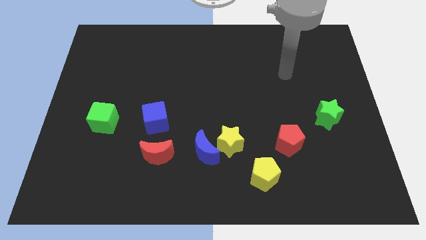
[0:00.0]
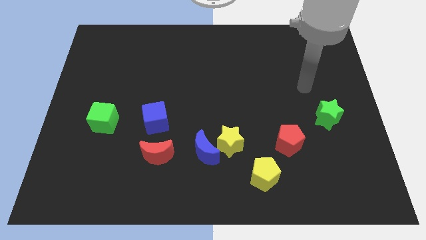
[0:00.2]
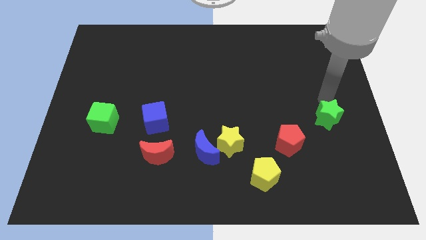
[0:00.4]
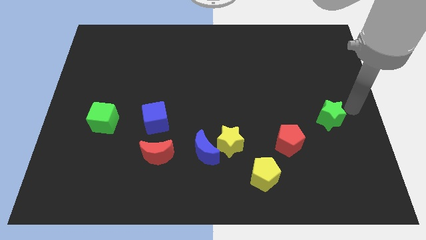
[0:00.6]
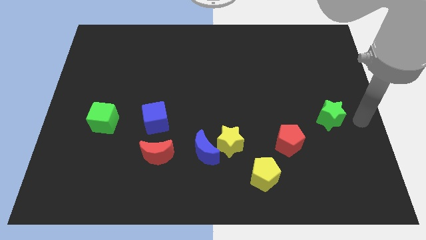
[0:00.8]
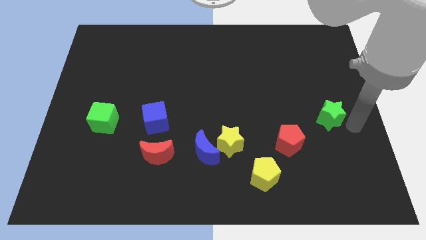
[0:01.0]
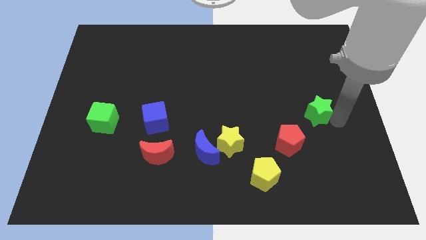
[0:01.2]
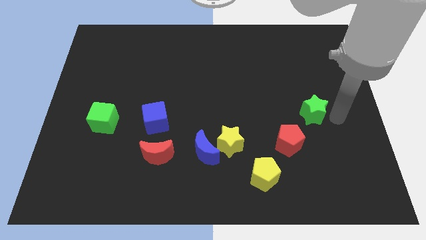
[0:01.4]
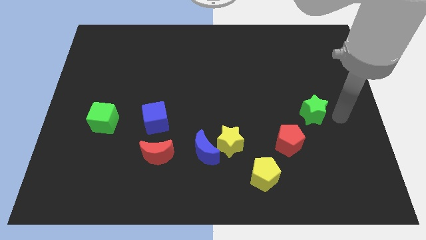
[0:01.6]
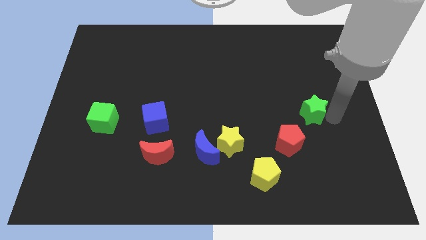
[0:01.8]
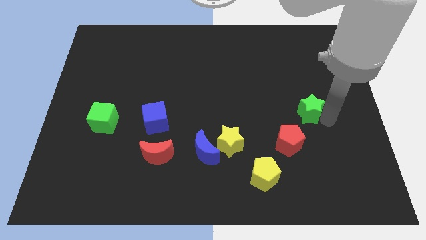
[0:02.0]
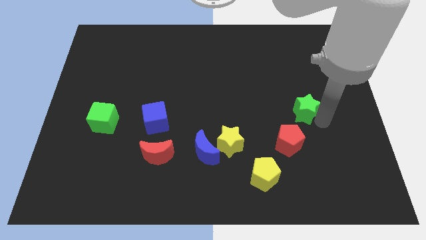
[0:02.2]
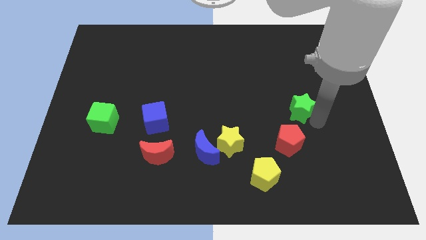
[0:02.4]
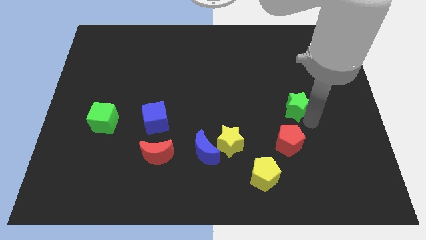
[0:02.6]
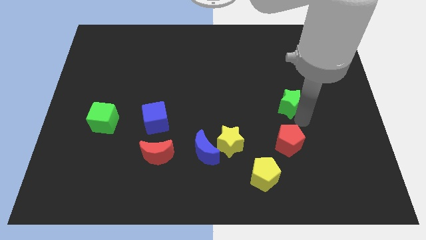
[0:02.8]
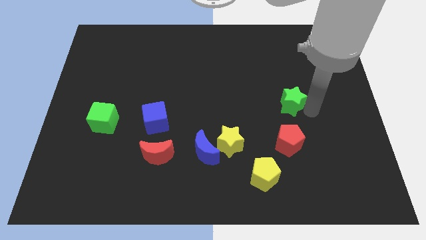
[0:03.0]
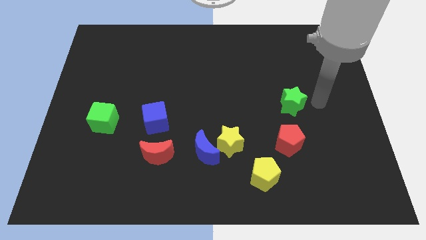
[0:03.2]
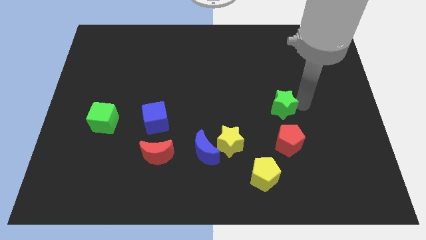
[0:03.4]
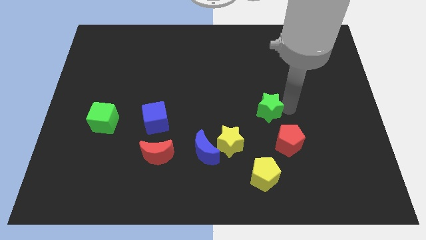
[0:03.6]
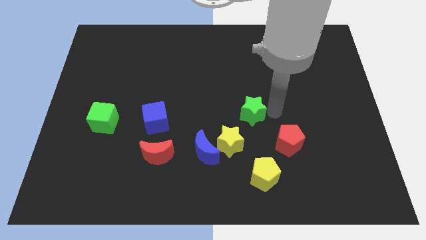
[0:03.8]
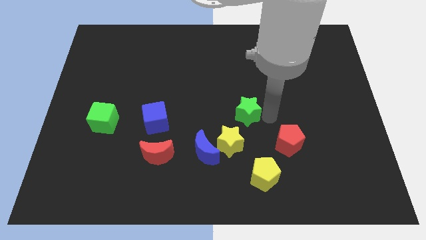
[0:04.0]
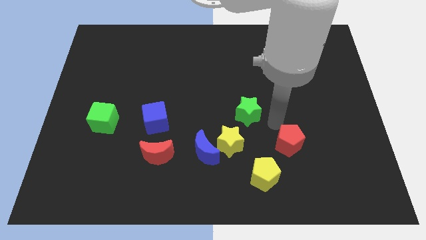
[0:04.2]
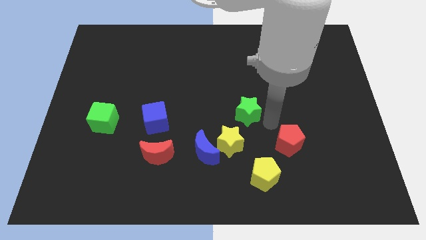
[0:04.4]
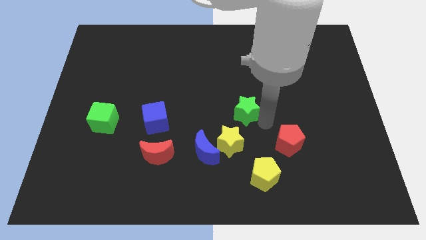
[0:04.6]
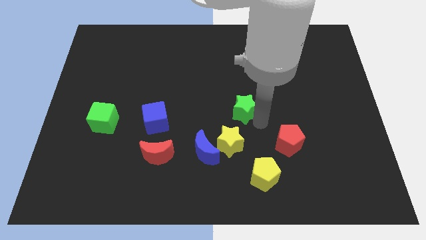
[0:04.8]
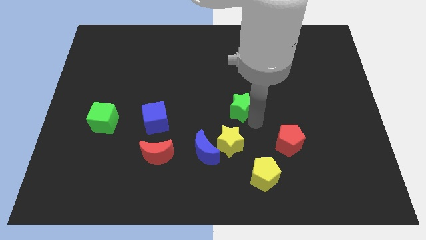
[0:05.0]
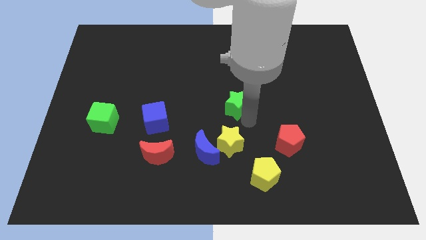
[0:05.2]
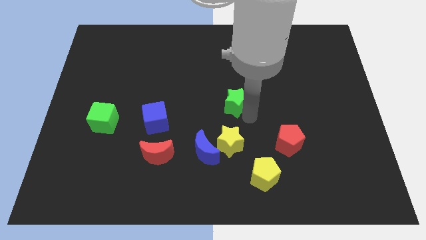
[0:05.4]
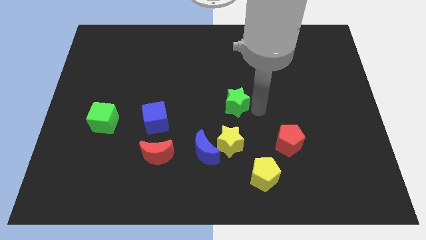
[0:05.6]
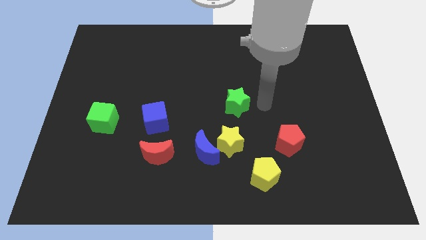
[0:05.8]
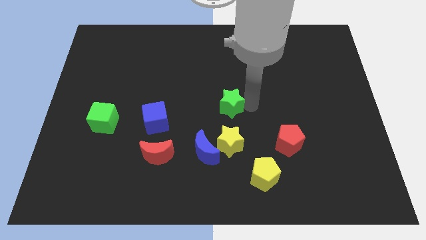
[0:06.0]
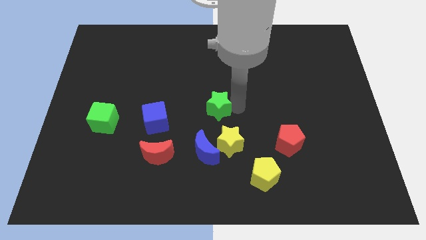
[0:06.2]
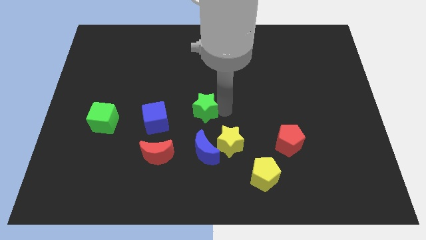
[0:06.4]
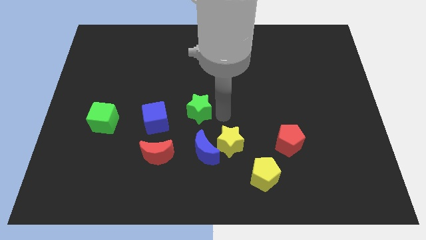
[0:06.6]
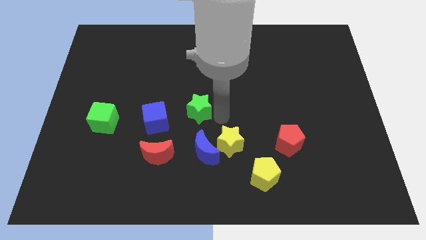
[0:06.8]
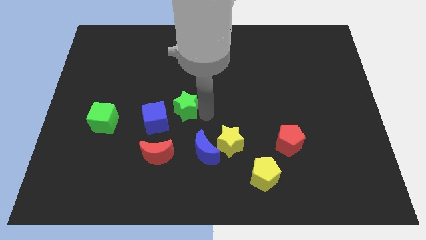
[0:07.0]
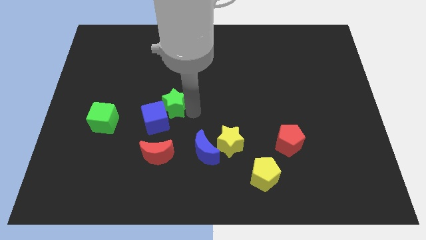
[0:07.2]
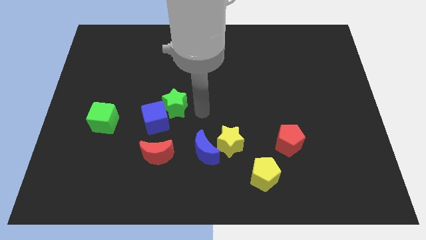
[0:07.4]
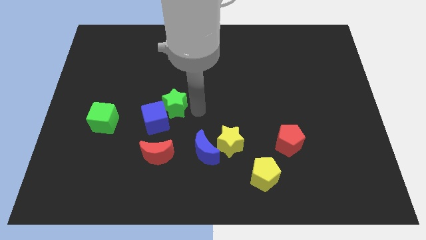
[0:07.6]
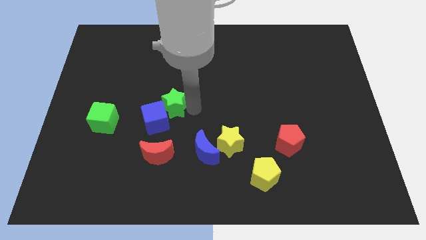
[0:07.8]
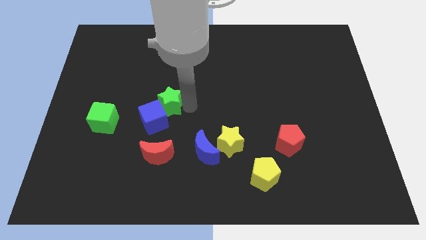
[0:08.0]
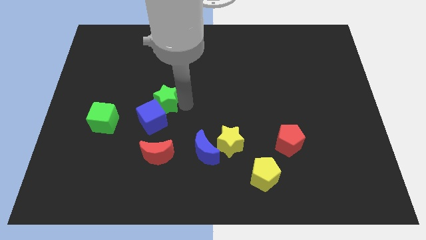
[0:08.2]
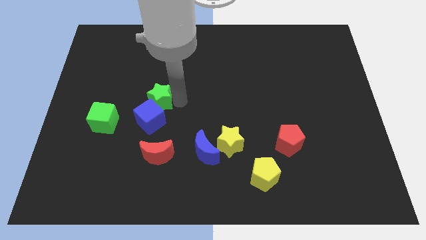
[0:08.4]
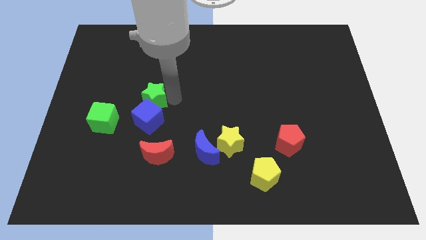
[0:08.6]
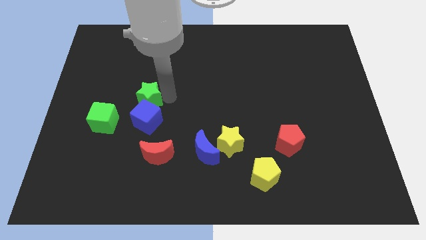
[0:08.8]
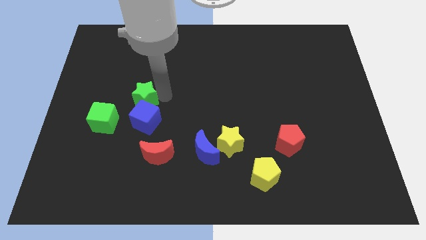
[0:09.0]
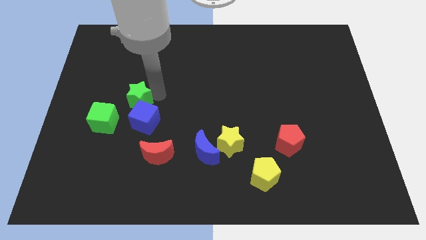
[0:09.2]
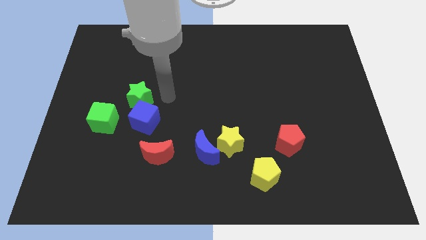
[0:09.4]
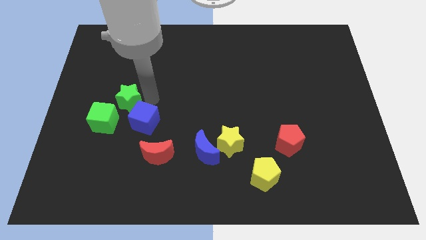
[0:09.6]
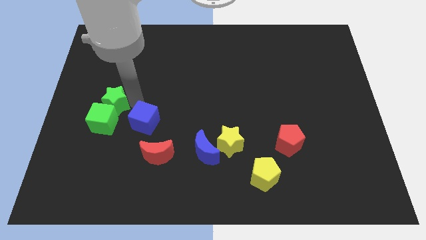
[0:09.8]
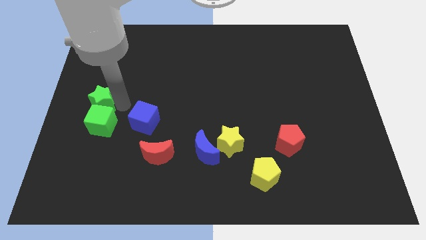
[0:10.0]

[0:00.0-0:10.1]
push the green star to the center left

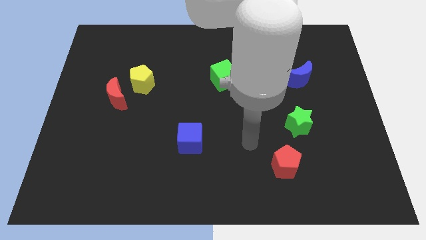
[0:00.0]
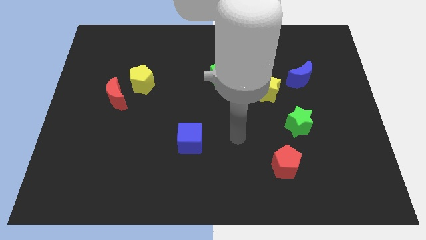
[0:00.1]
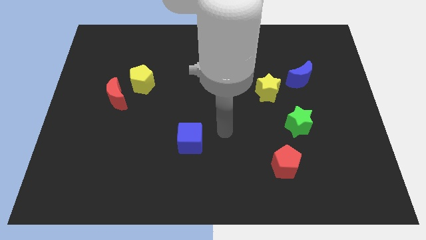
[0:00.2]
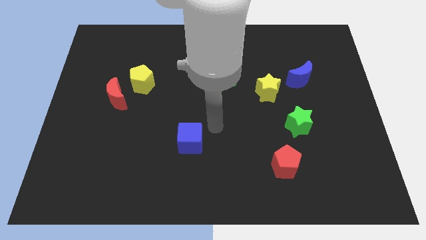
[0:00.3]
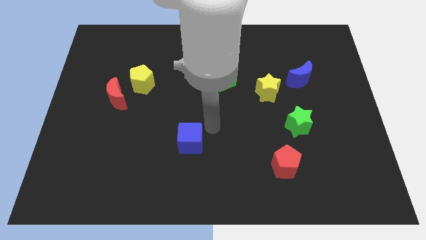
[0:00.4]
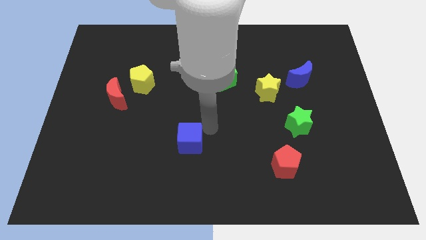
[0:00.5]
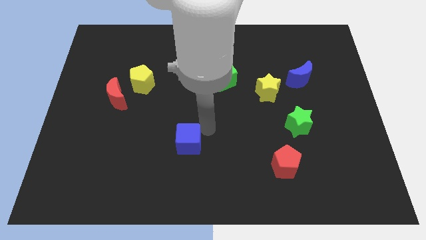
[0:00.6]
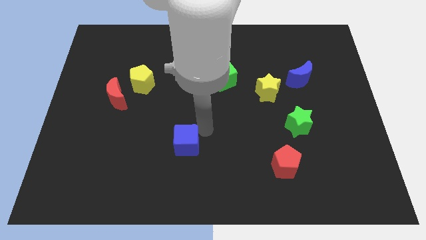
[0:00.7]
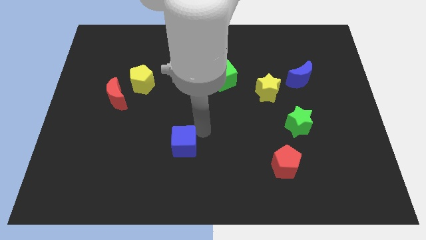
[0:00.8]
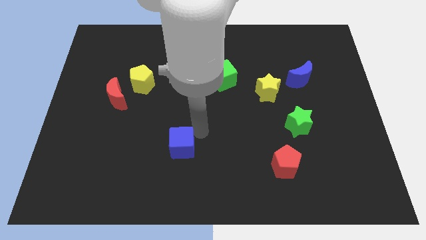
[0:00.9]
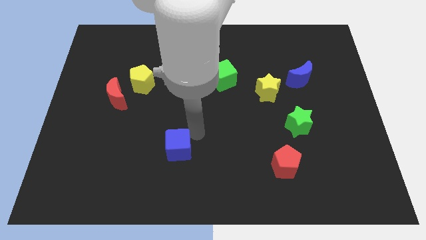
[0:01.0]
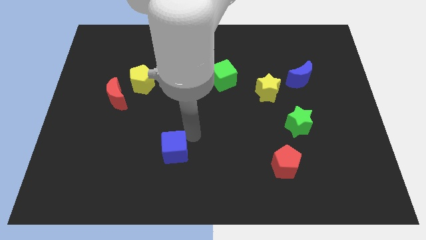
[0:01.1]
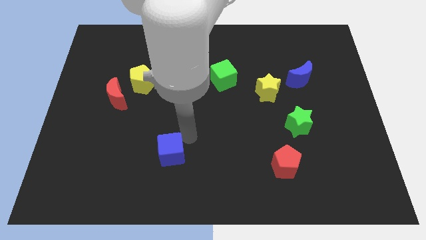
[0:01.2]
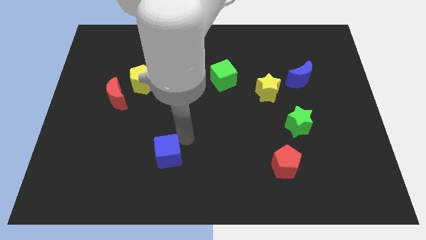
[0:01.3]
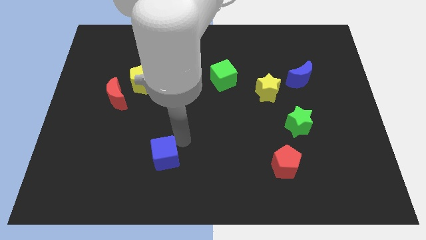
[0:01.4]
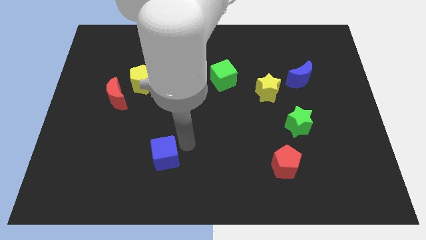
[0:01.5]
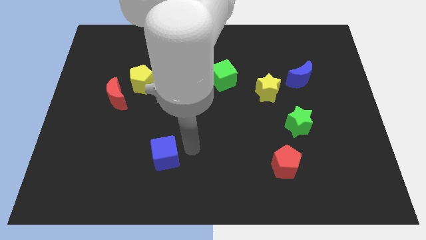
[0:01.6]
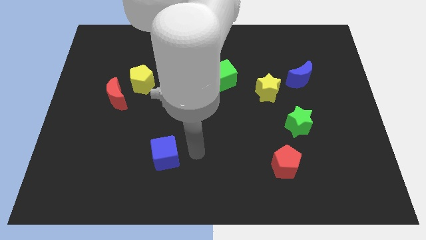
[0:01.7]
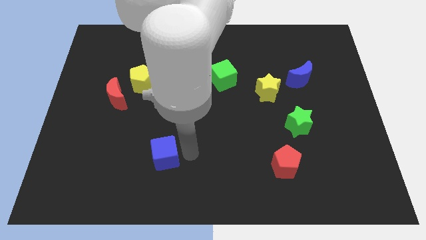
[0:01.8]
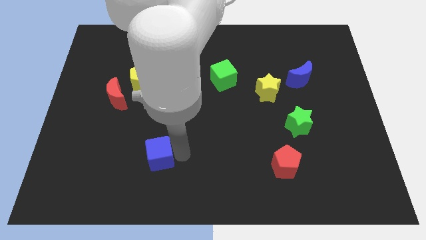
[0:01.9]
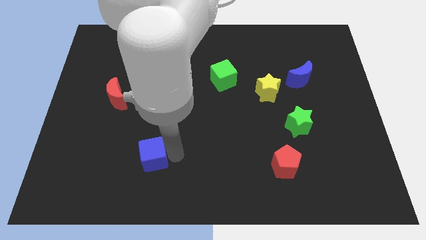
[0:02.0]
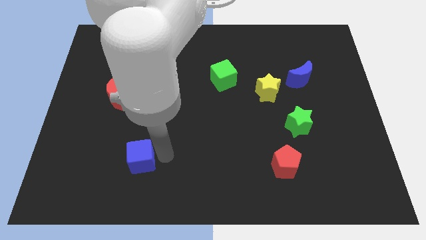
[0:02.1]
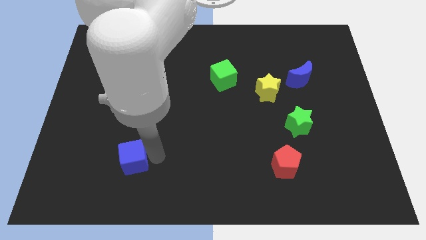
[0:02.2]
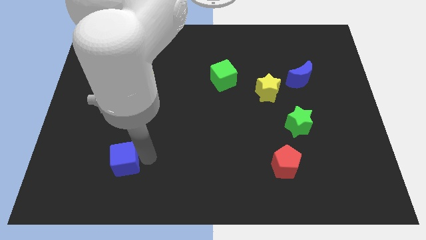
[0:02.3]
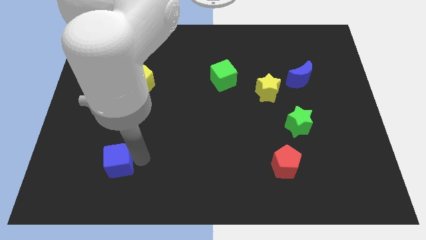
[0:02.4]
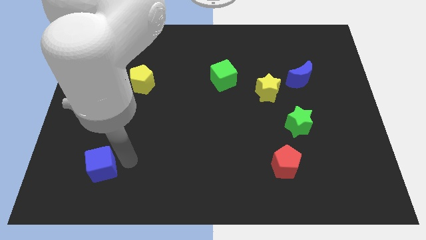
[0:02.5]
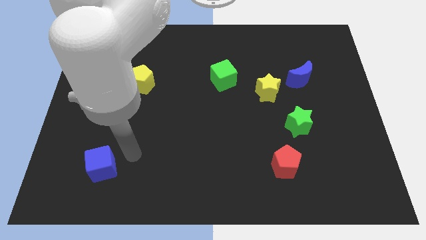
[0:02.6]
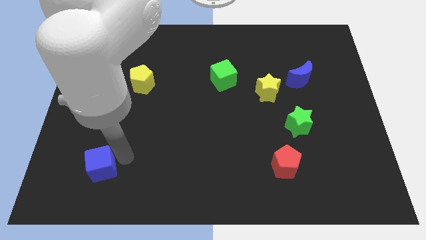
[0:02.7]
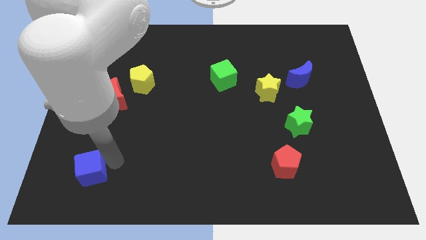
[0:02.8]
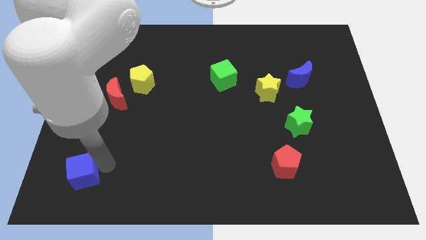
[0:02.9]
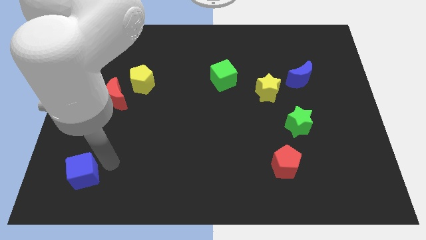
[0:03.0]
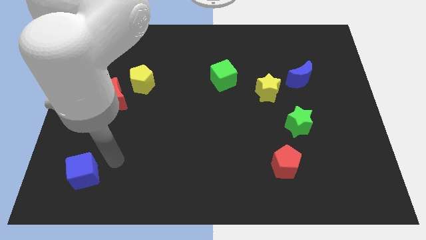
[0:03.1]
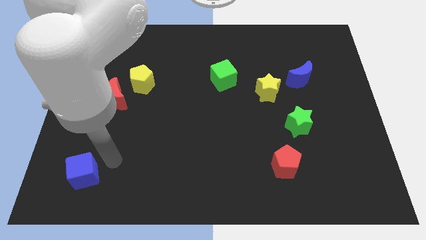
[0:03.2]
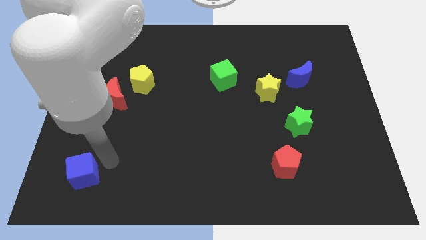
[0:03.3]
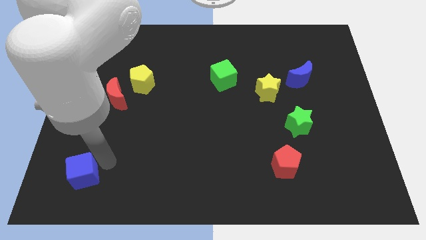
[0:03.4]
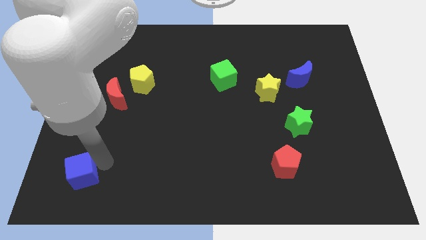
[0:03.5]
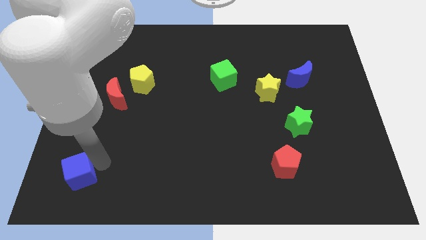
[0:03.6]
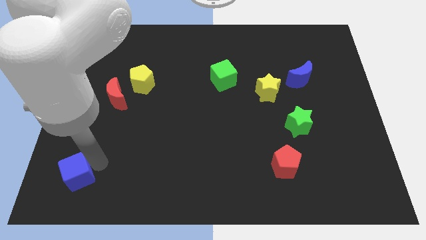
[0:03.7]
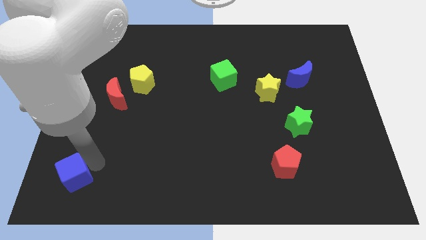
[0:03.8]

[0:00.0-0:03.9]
slide the blue cube to the lower left corner
